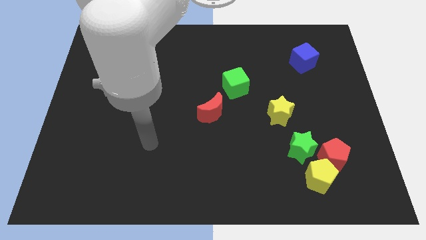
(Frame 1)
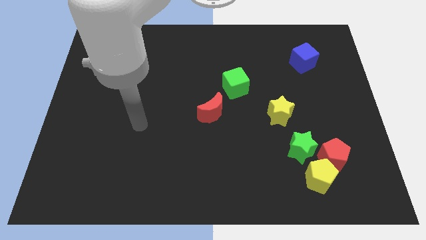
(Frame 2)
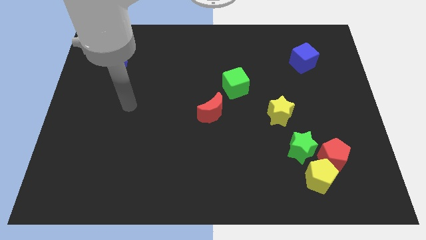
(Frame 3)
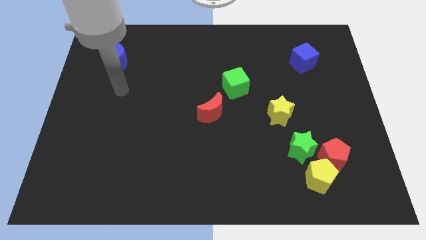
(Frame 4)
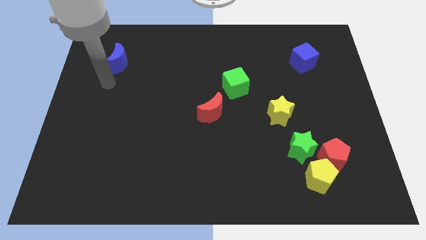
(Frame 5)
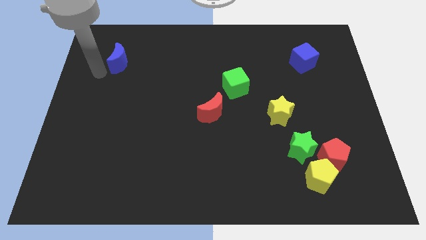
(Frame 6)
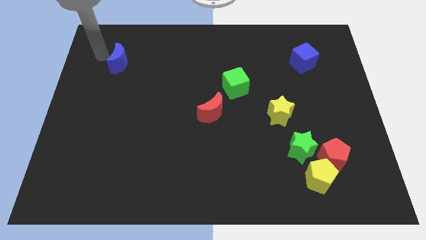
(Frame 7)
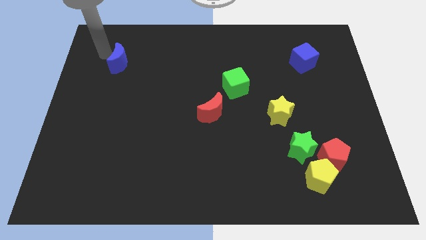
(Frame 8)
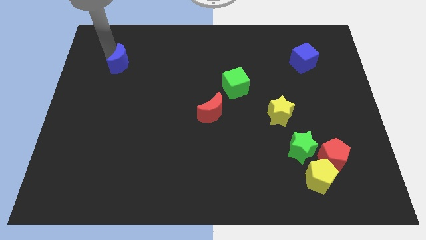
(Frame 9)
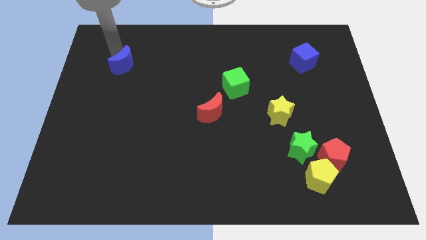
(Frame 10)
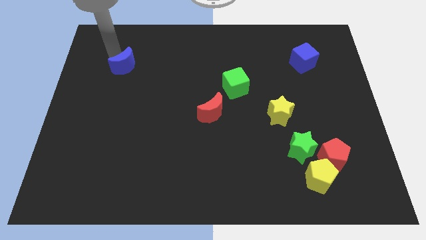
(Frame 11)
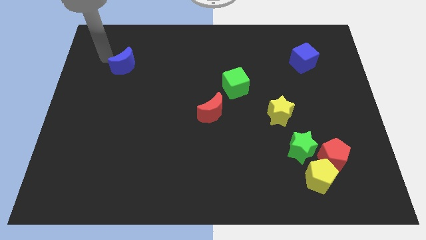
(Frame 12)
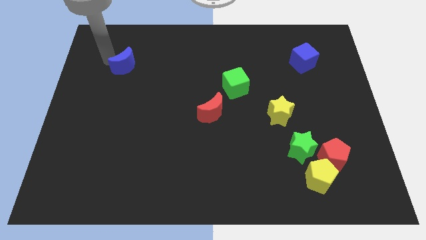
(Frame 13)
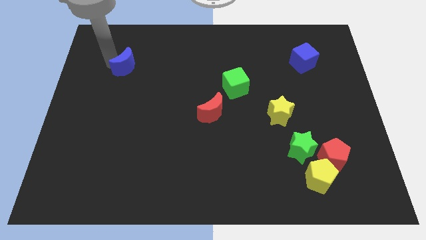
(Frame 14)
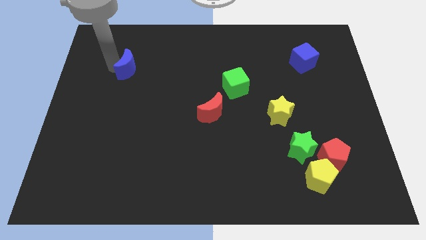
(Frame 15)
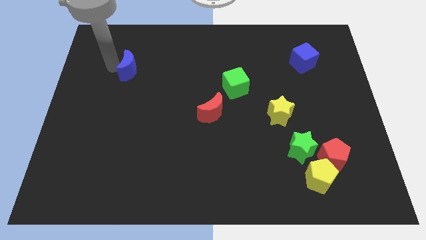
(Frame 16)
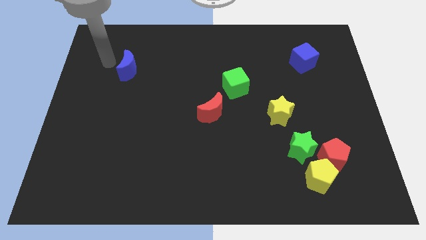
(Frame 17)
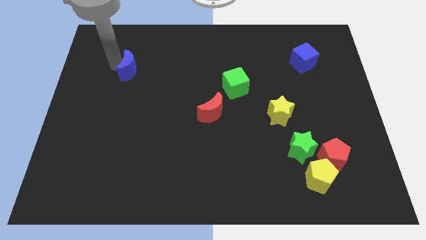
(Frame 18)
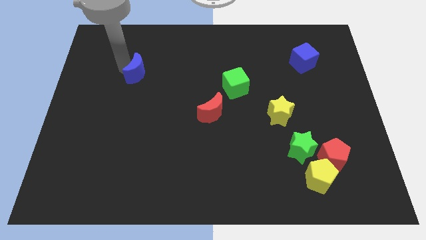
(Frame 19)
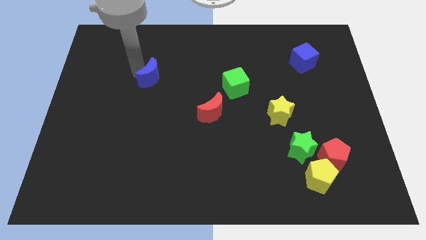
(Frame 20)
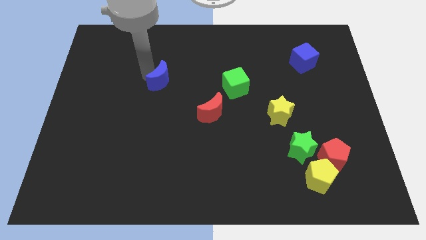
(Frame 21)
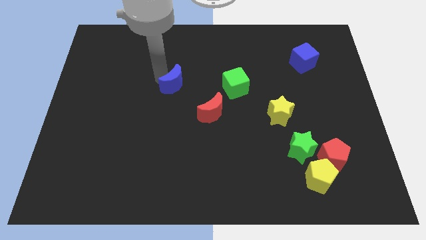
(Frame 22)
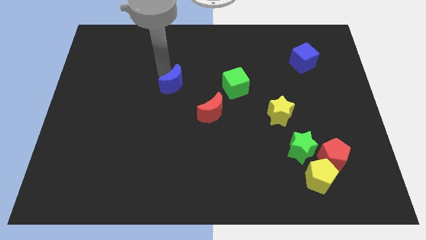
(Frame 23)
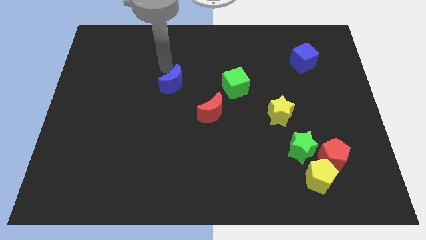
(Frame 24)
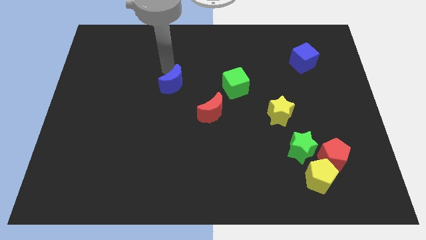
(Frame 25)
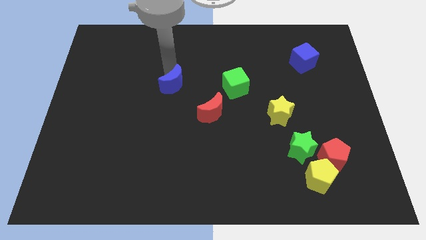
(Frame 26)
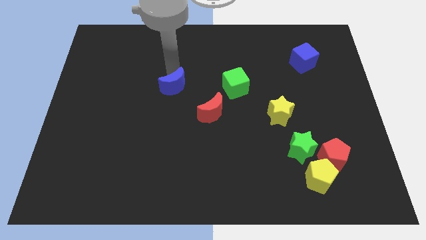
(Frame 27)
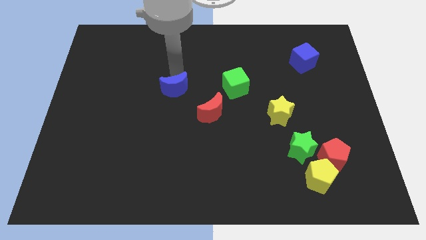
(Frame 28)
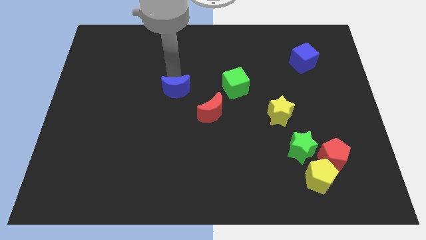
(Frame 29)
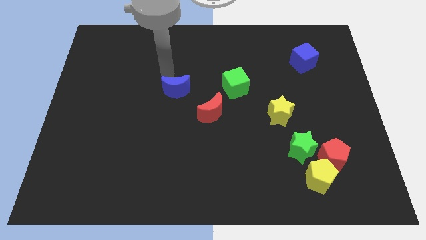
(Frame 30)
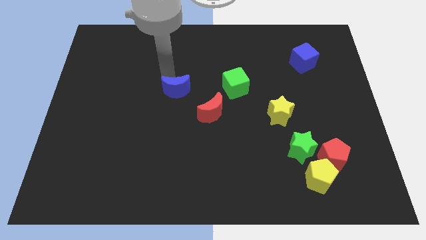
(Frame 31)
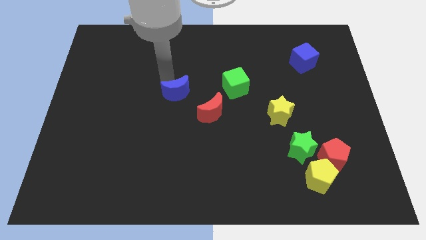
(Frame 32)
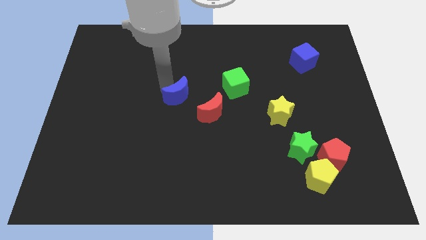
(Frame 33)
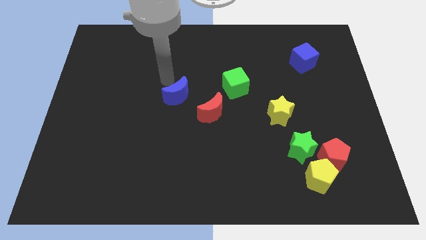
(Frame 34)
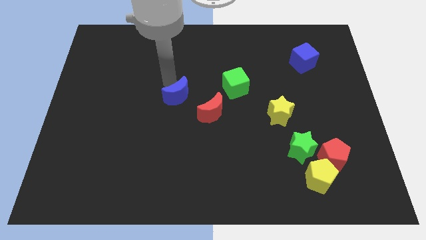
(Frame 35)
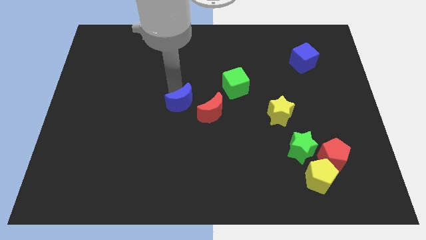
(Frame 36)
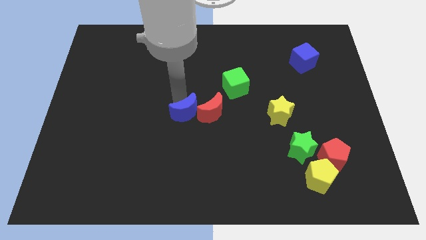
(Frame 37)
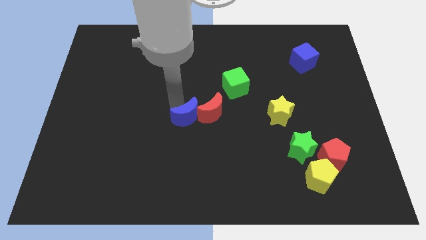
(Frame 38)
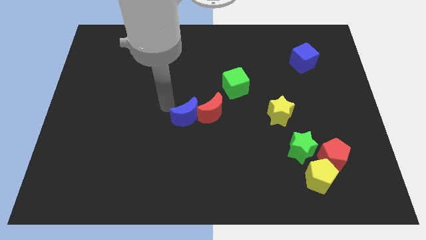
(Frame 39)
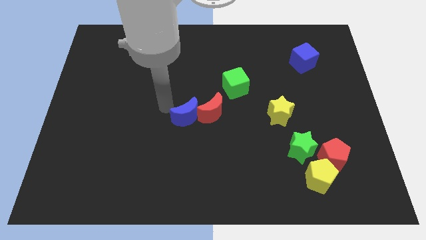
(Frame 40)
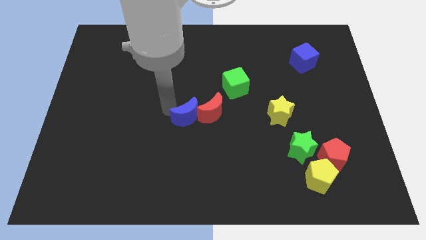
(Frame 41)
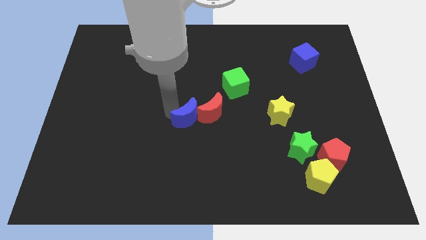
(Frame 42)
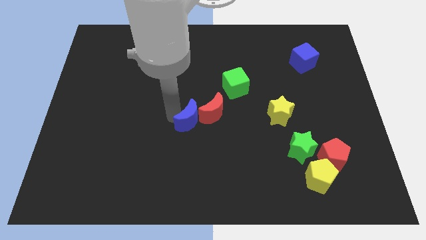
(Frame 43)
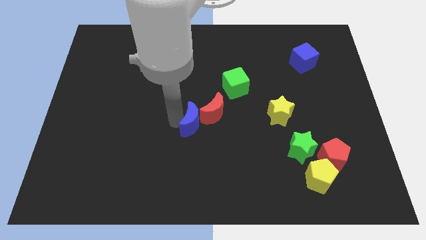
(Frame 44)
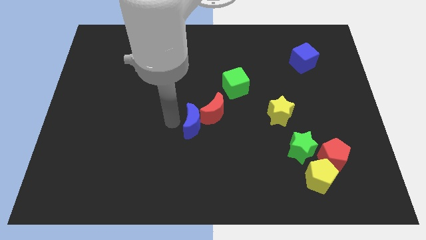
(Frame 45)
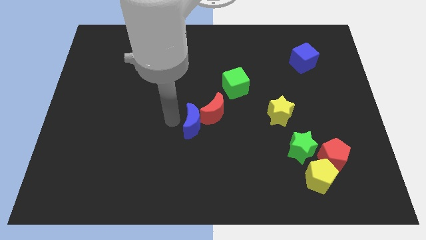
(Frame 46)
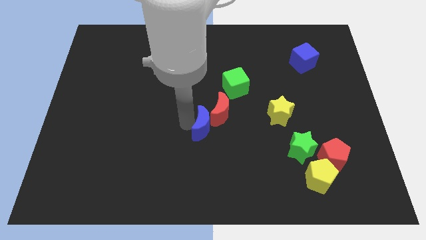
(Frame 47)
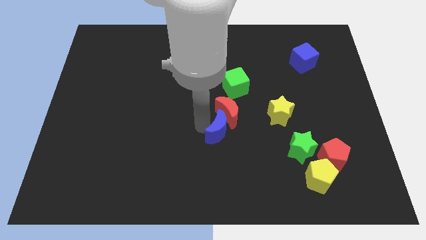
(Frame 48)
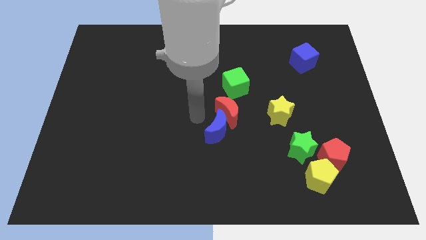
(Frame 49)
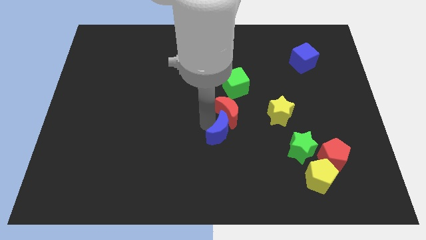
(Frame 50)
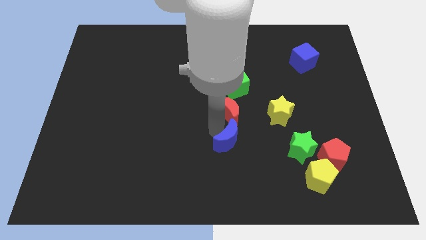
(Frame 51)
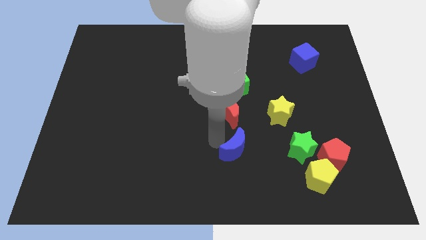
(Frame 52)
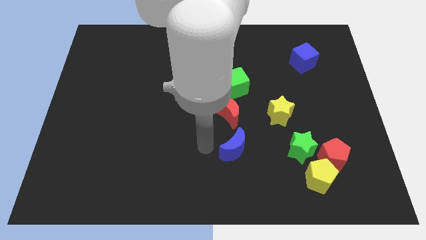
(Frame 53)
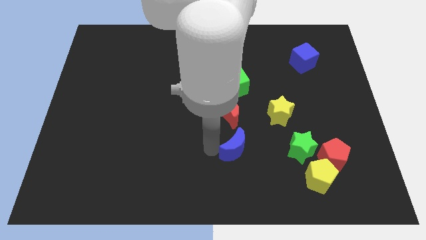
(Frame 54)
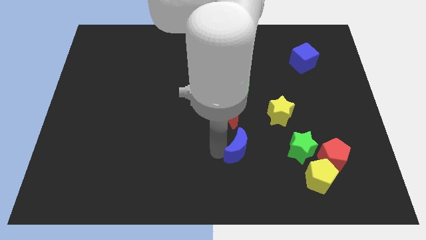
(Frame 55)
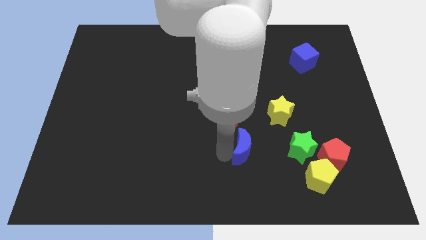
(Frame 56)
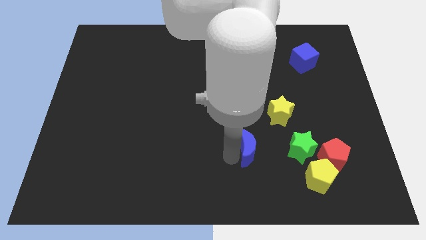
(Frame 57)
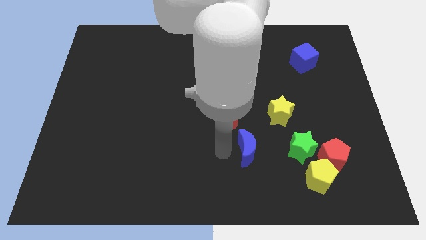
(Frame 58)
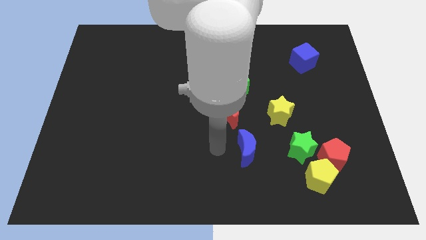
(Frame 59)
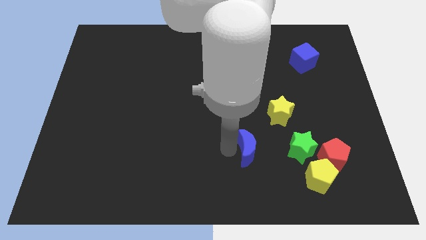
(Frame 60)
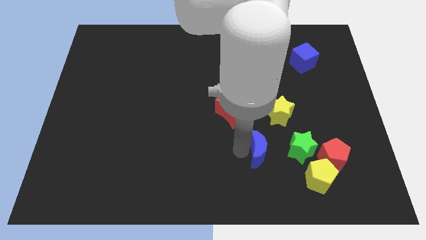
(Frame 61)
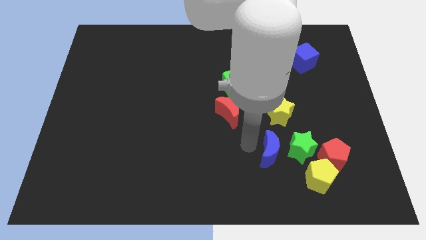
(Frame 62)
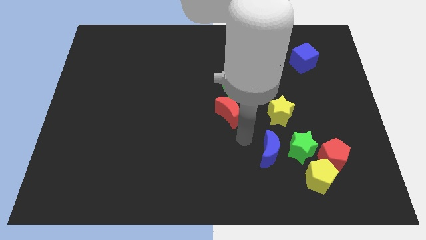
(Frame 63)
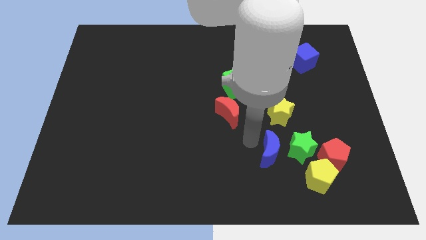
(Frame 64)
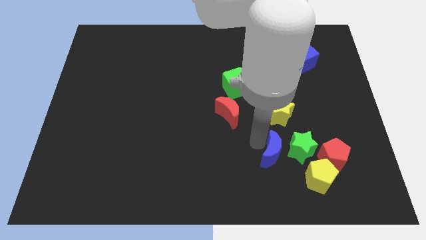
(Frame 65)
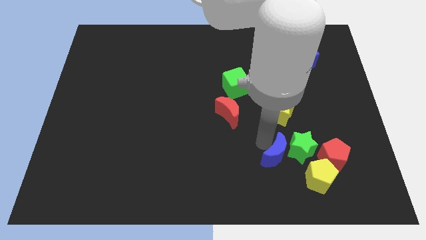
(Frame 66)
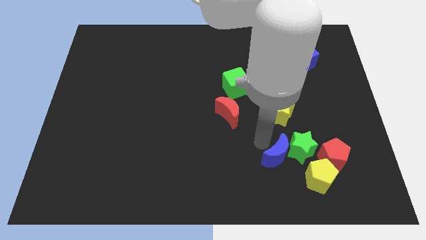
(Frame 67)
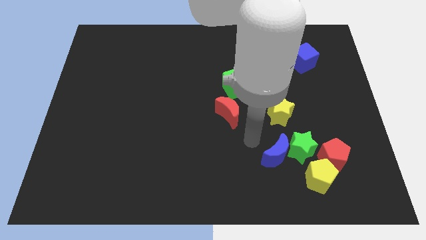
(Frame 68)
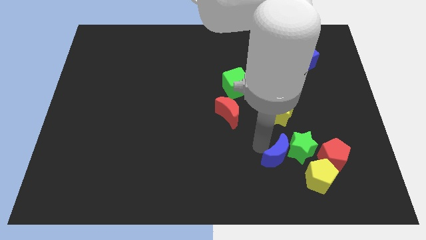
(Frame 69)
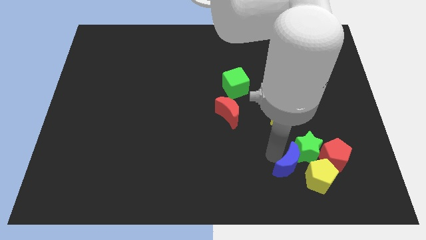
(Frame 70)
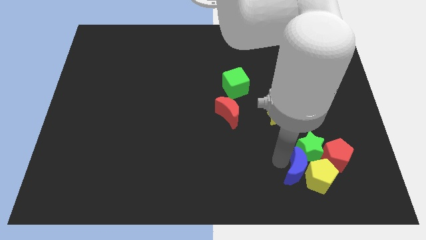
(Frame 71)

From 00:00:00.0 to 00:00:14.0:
push the blue moon towards the yellow pentagon
